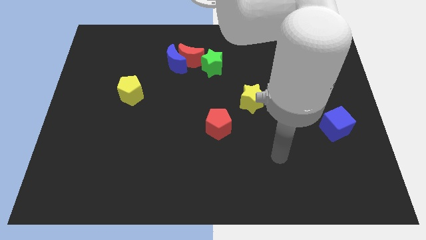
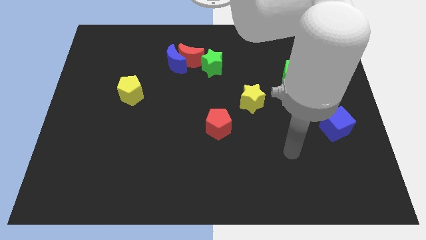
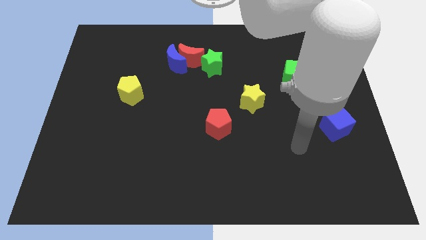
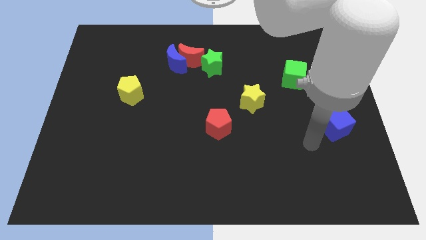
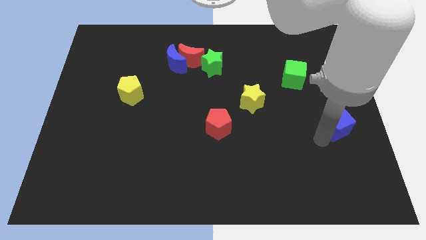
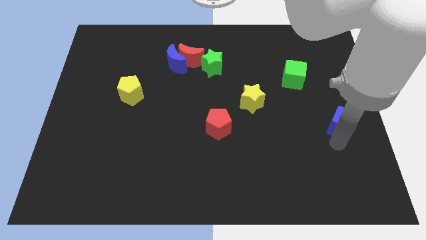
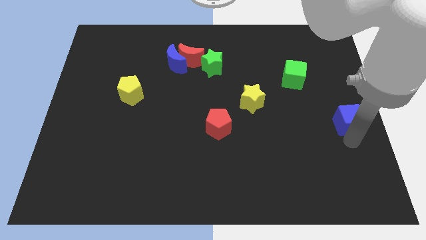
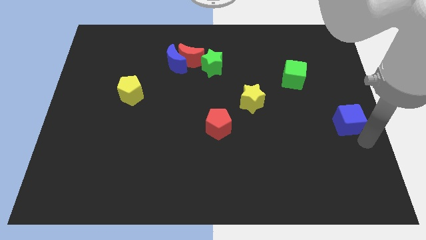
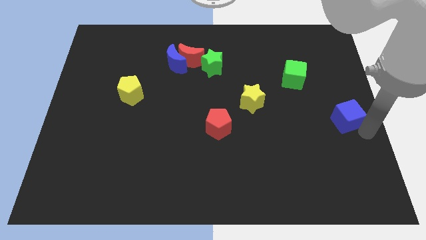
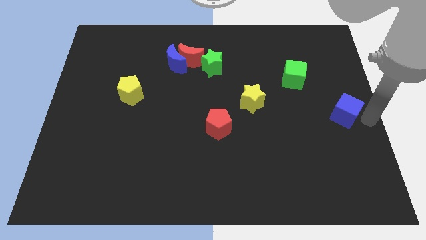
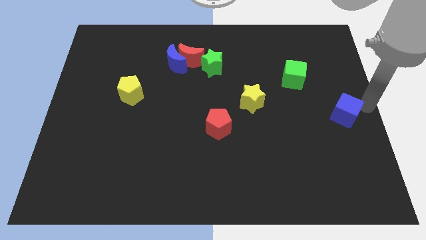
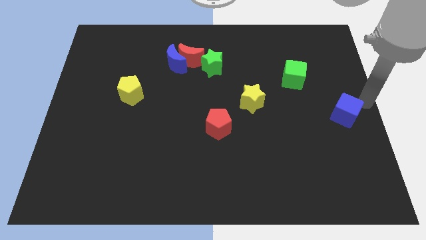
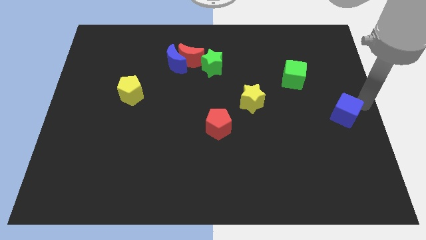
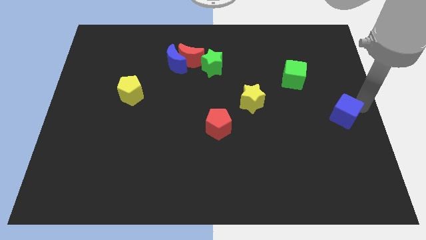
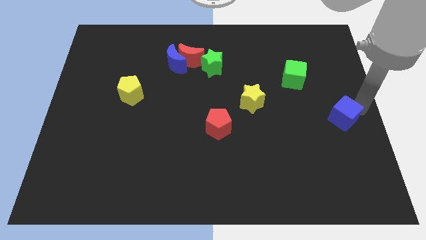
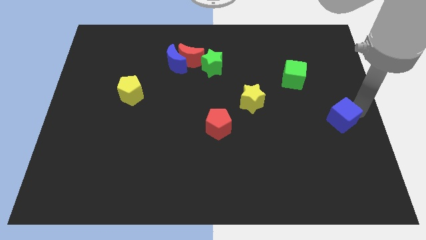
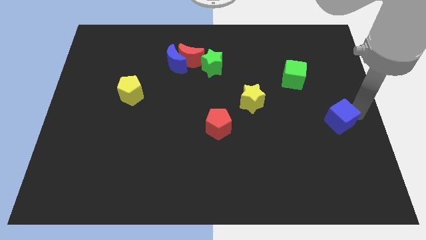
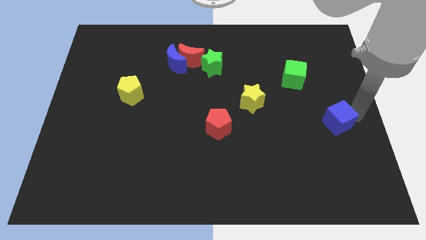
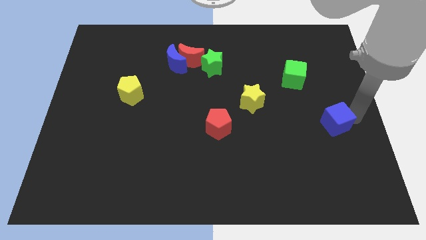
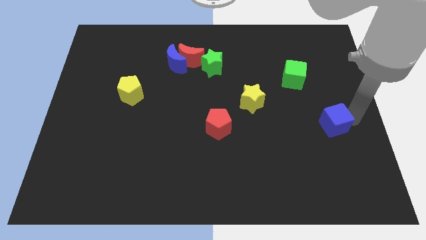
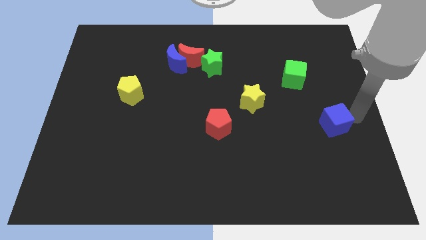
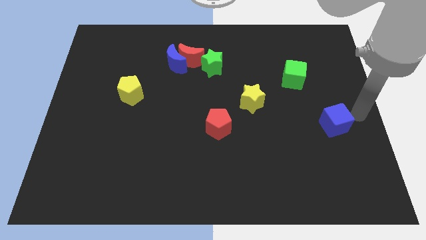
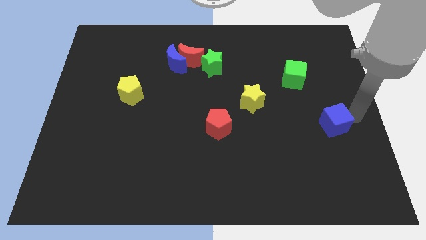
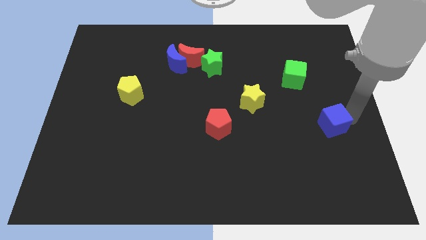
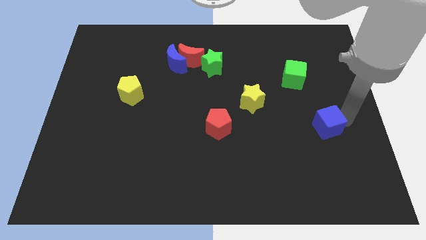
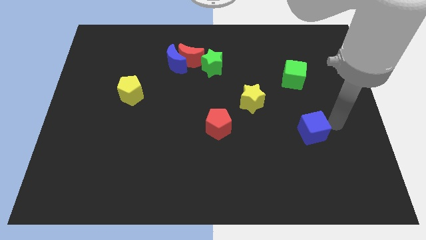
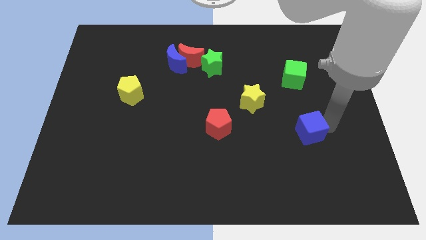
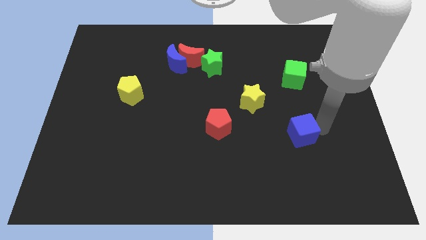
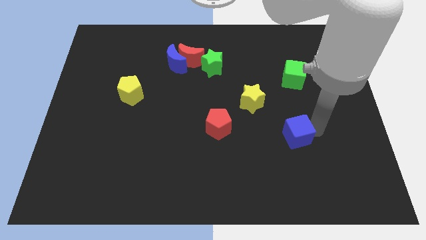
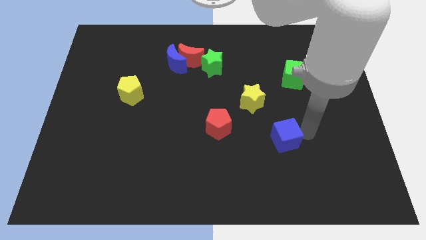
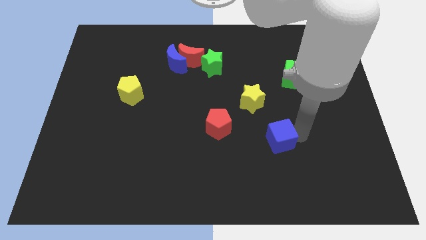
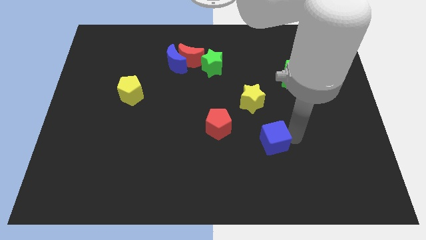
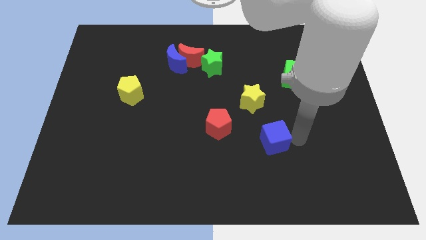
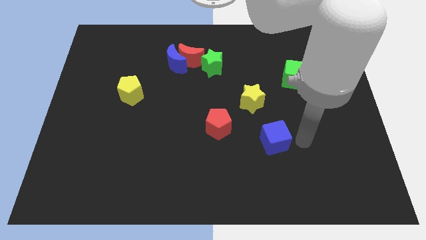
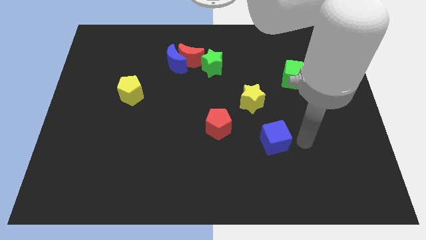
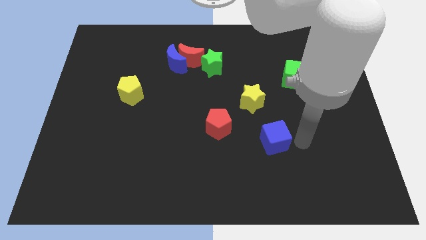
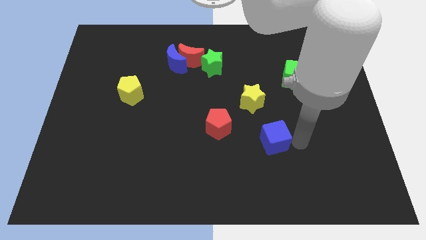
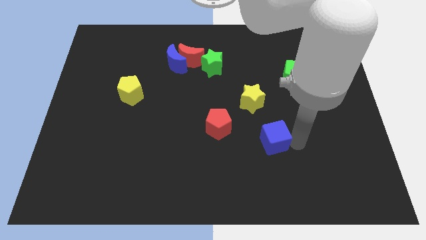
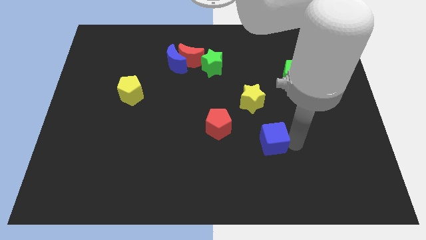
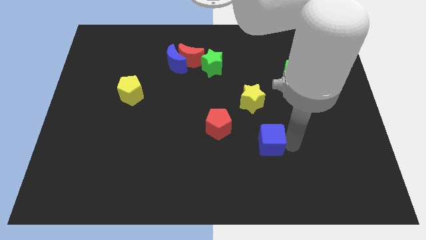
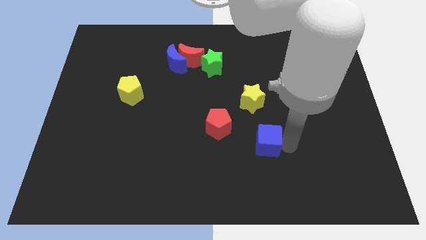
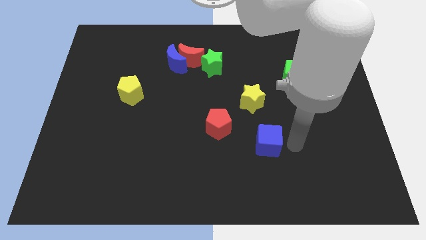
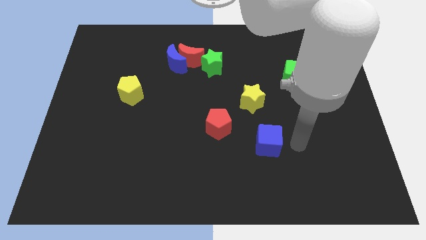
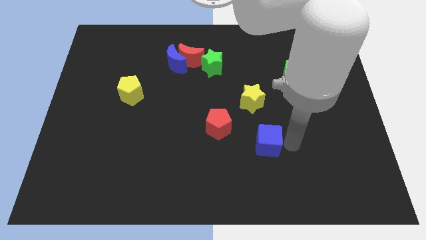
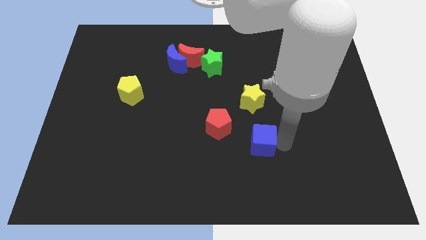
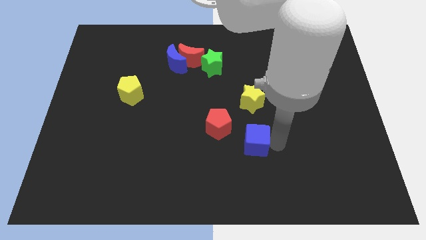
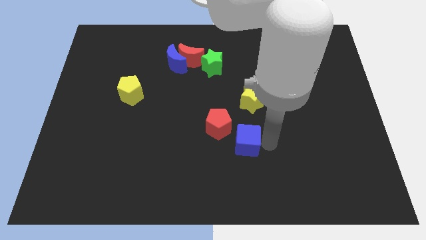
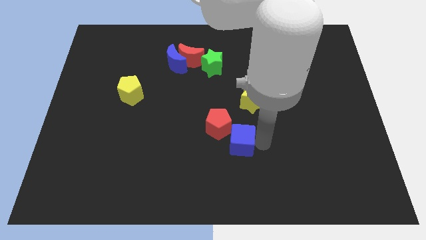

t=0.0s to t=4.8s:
move the blue cube to the left

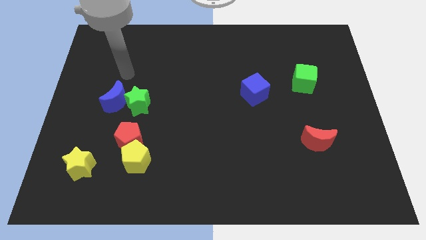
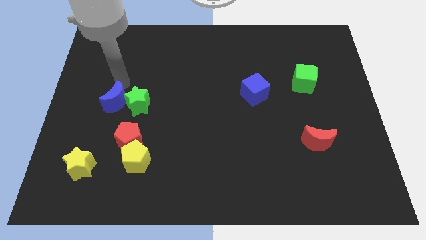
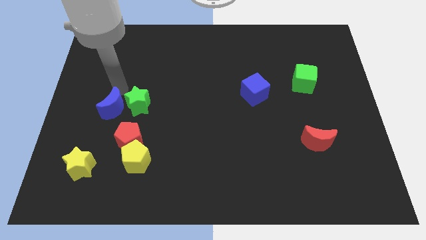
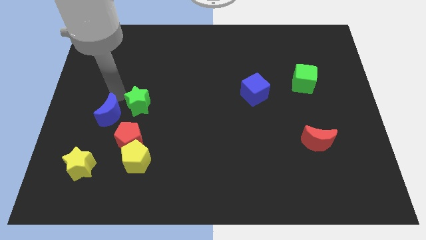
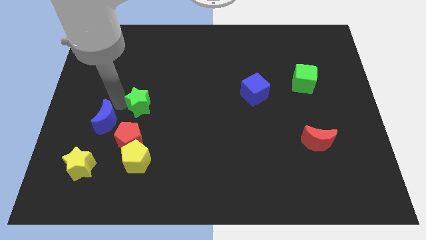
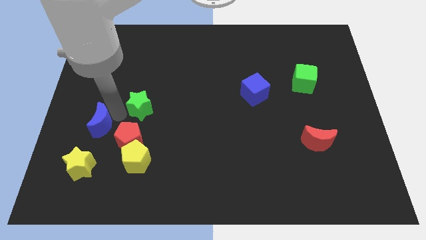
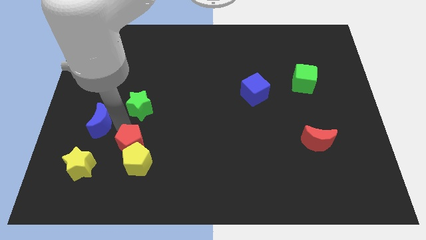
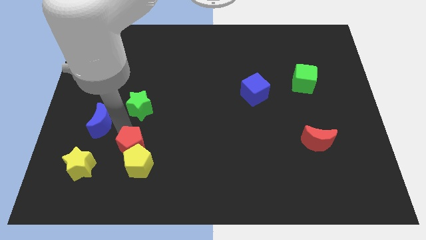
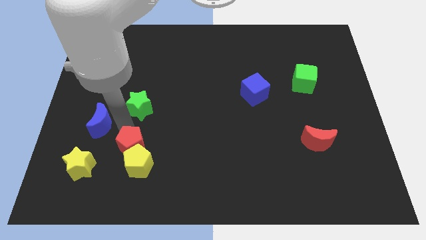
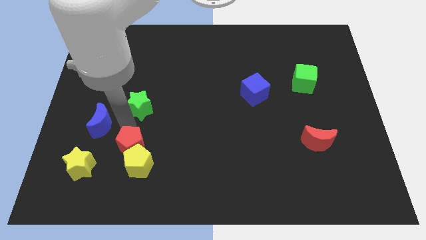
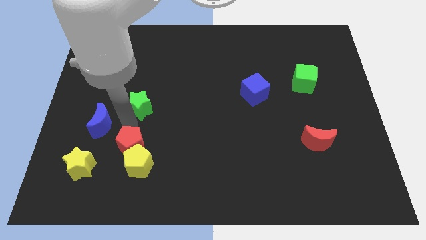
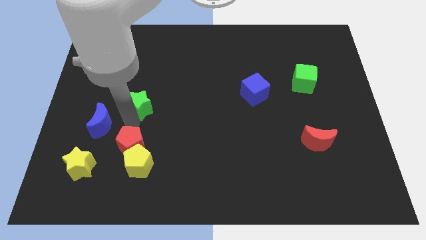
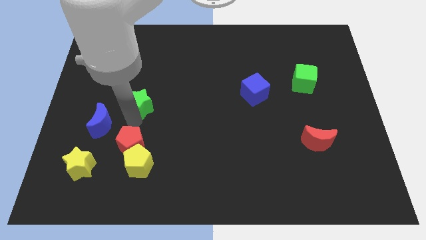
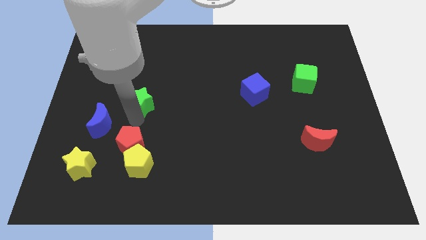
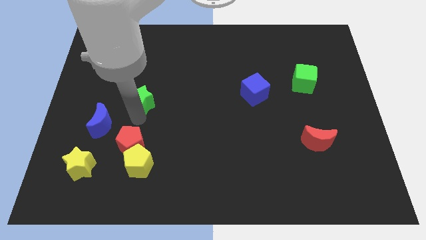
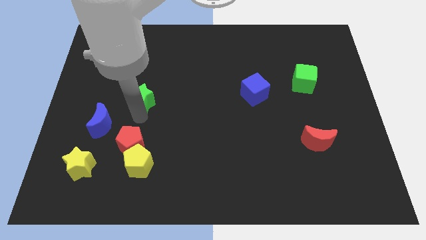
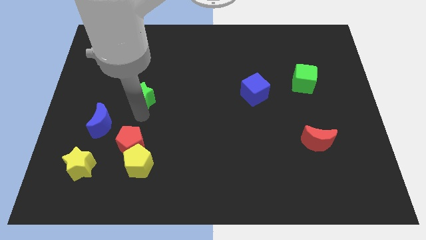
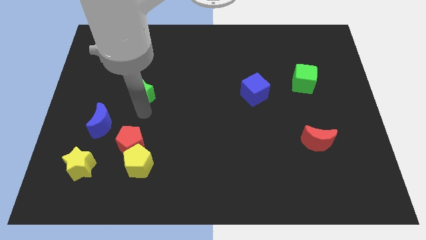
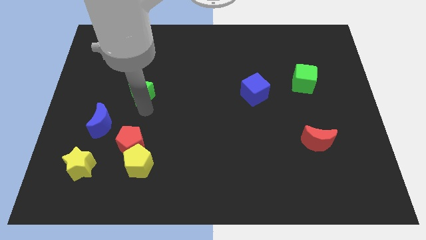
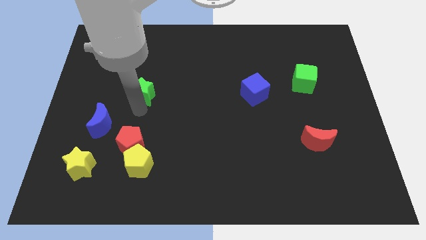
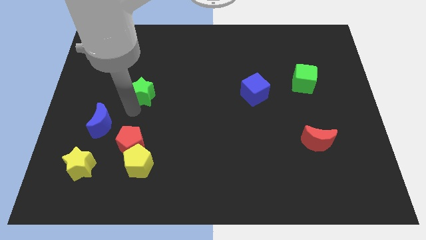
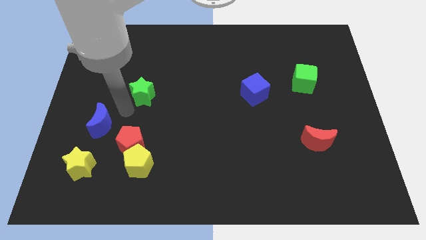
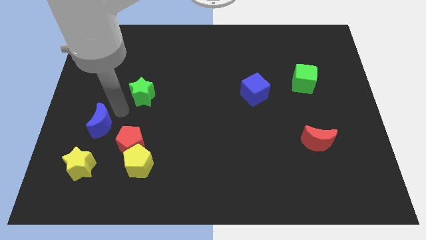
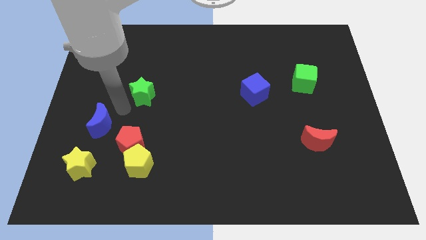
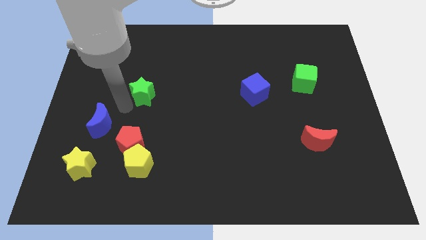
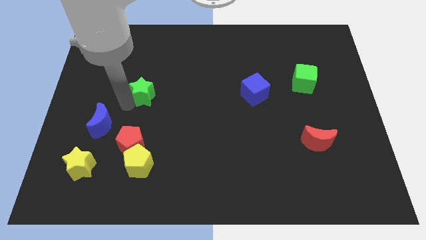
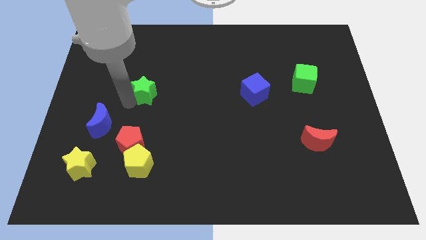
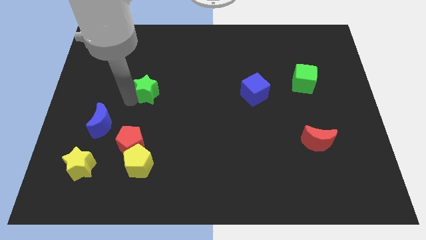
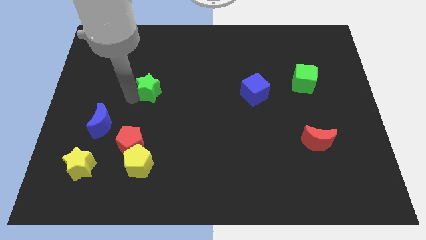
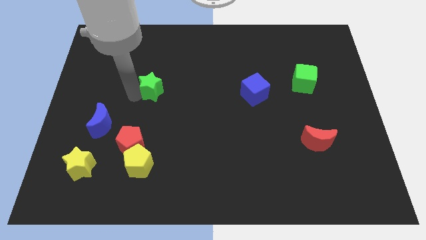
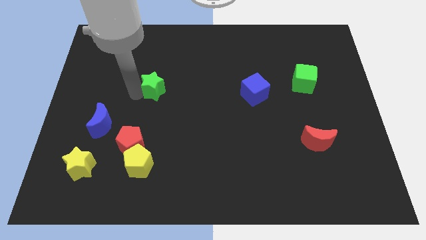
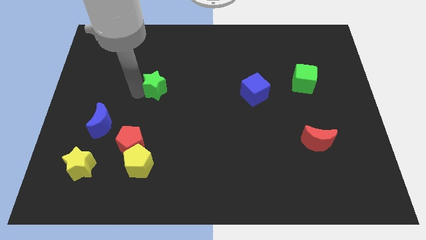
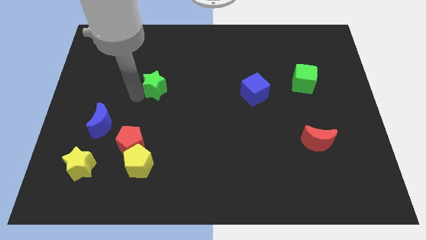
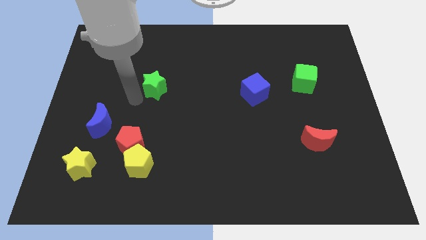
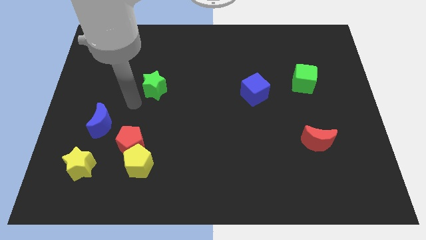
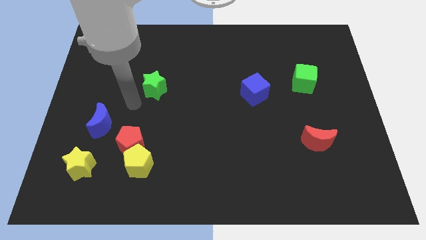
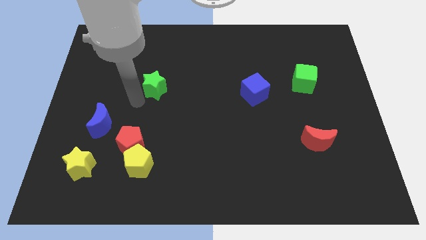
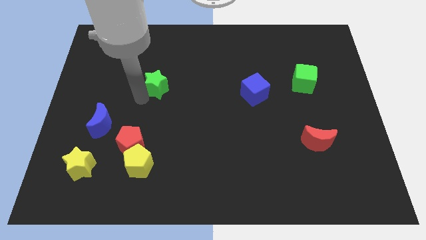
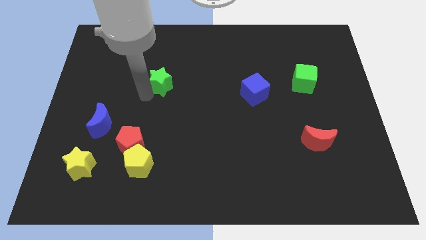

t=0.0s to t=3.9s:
slightly slide the green star upwards and then to the right
